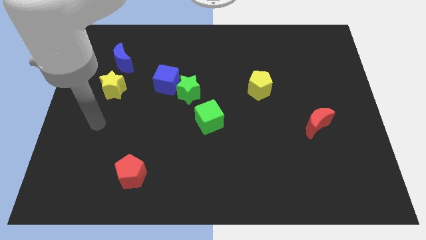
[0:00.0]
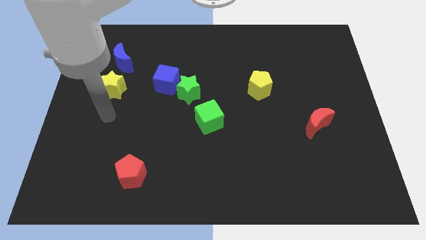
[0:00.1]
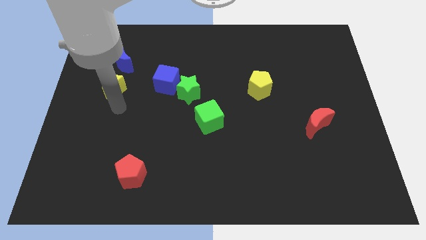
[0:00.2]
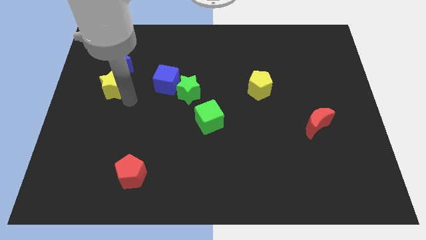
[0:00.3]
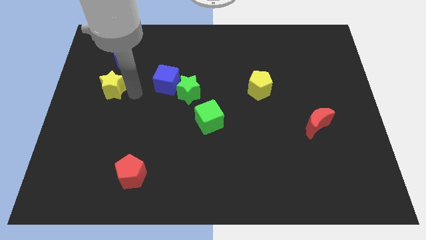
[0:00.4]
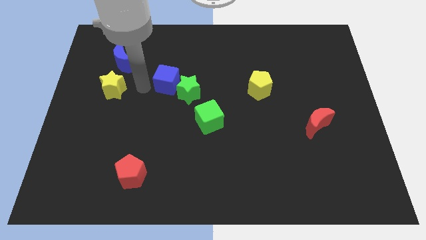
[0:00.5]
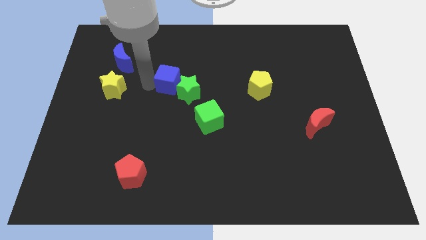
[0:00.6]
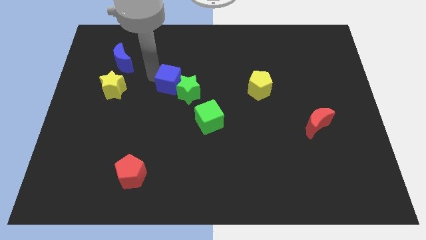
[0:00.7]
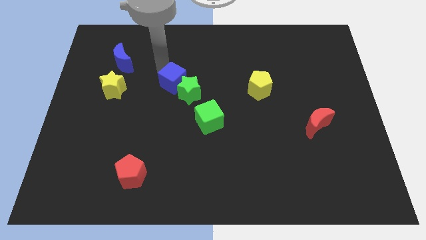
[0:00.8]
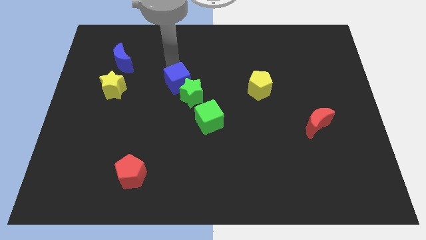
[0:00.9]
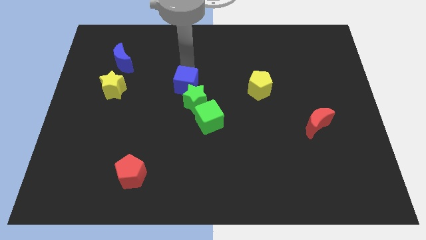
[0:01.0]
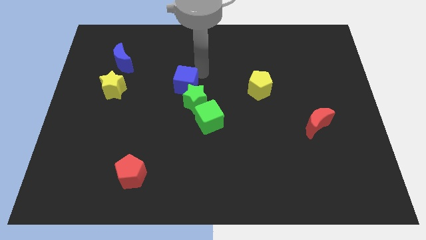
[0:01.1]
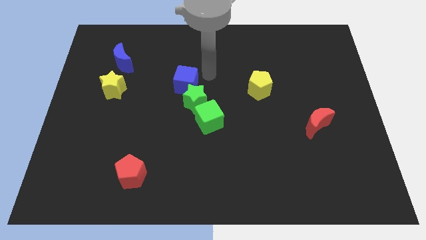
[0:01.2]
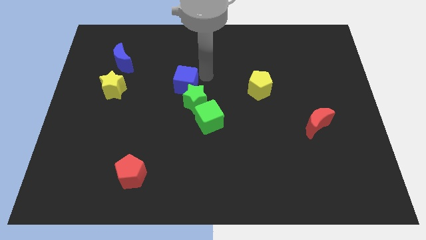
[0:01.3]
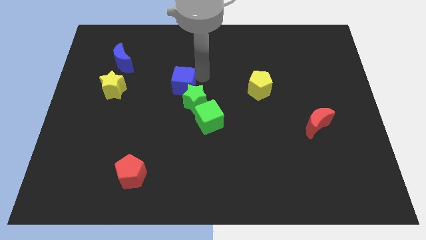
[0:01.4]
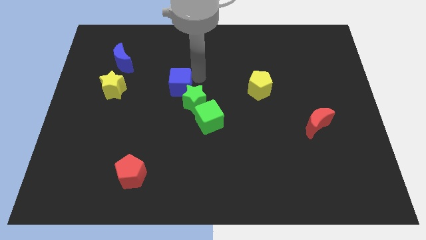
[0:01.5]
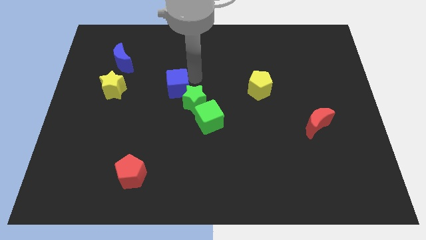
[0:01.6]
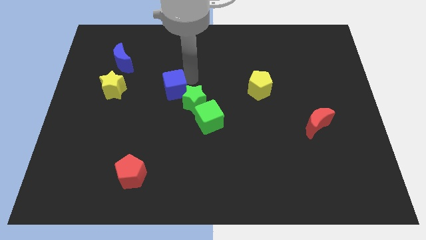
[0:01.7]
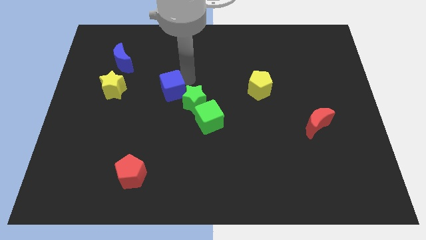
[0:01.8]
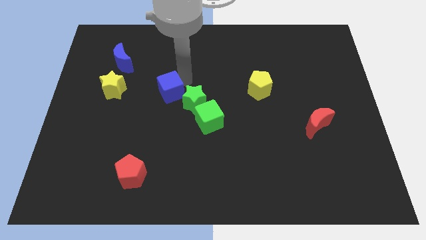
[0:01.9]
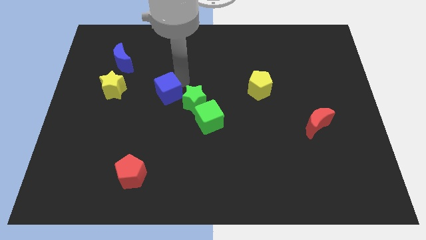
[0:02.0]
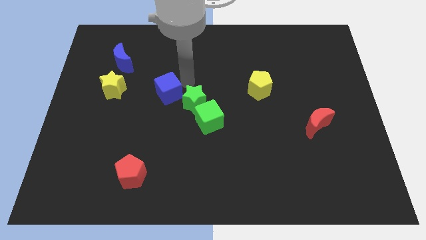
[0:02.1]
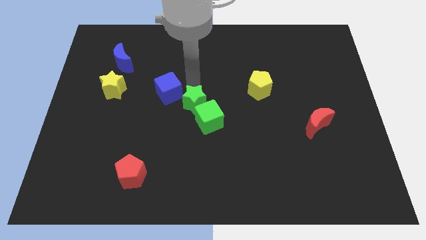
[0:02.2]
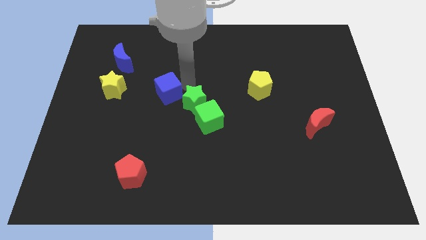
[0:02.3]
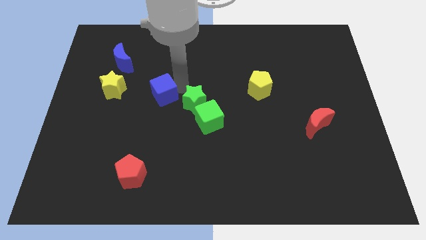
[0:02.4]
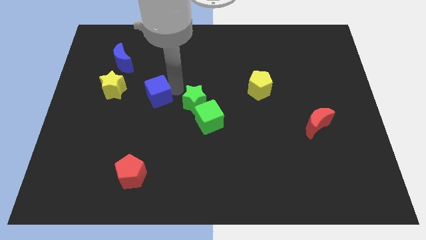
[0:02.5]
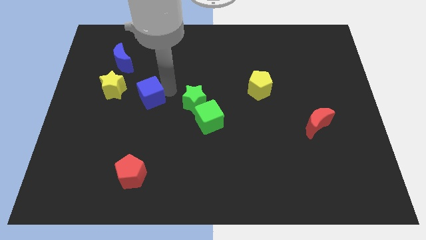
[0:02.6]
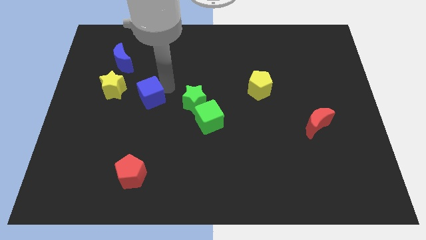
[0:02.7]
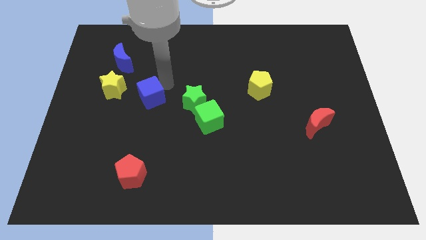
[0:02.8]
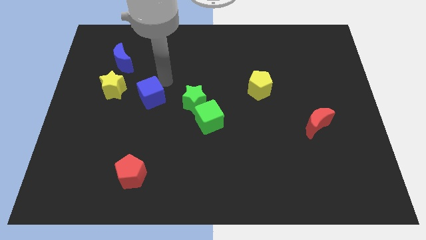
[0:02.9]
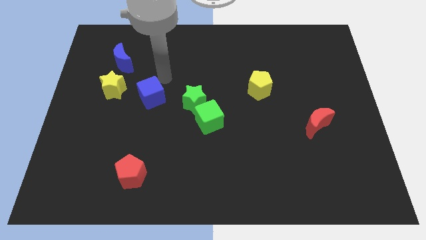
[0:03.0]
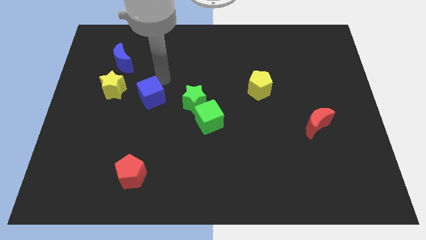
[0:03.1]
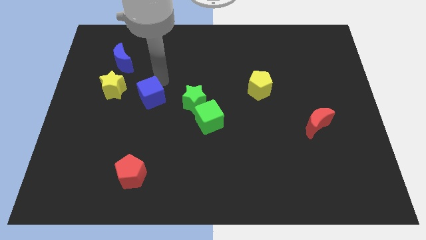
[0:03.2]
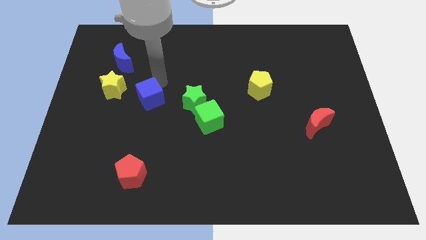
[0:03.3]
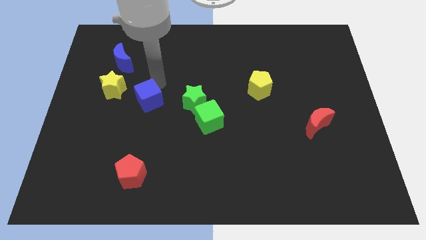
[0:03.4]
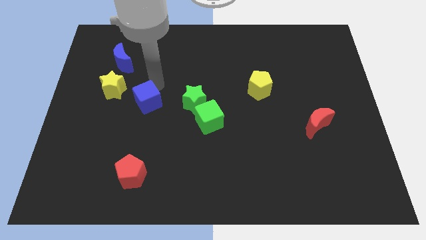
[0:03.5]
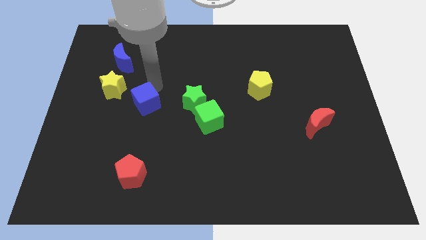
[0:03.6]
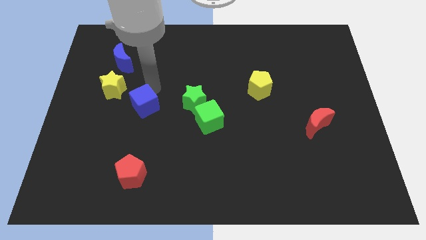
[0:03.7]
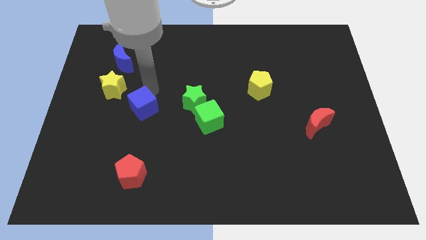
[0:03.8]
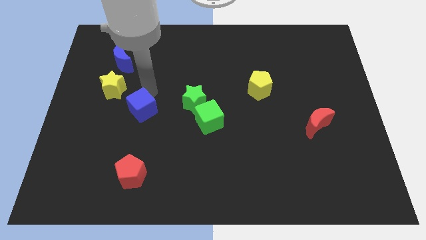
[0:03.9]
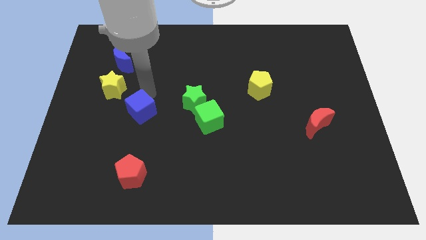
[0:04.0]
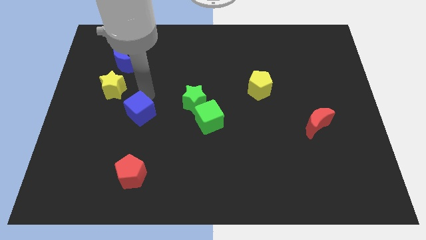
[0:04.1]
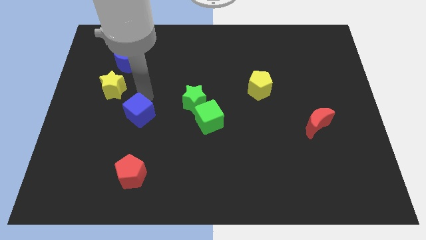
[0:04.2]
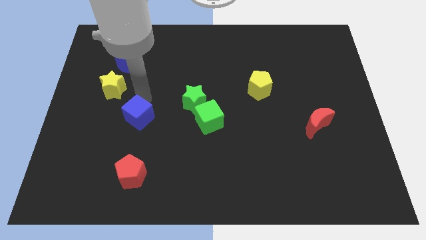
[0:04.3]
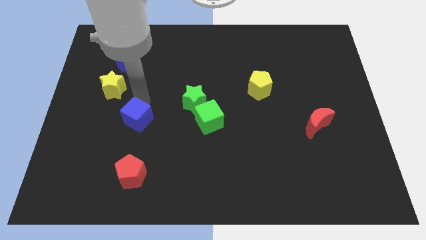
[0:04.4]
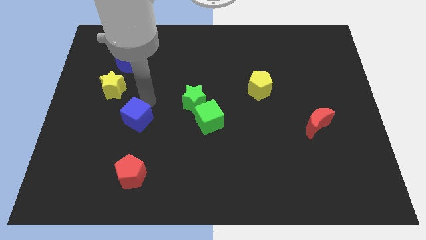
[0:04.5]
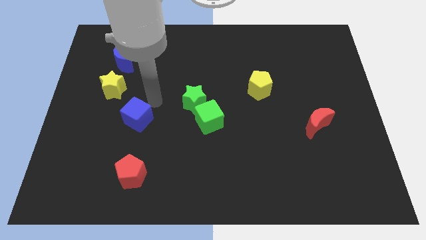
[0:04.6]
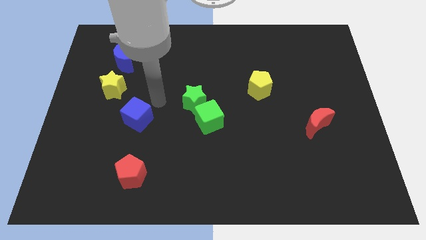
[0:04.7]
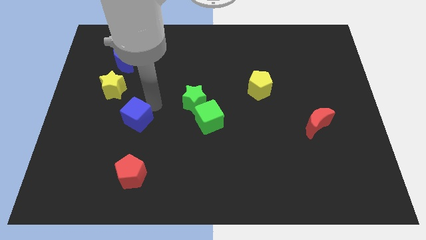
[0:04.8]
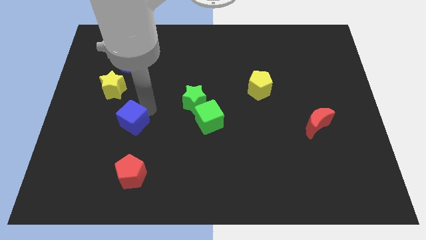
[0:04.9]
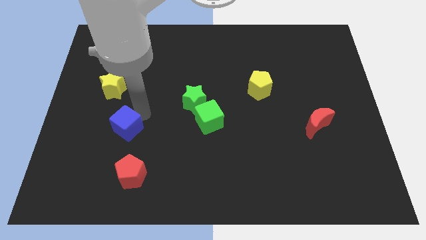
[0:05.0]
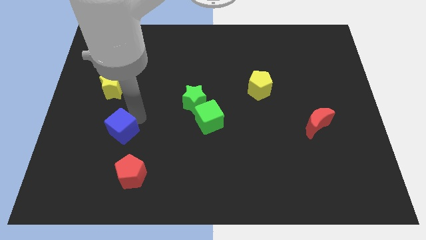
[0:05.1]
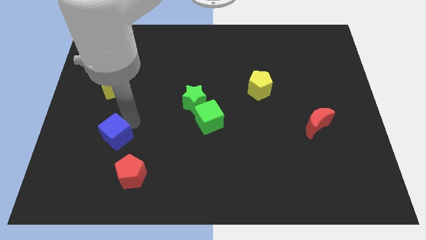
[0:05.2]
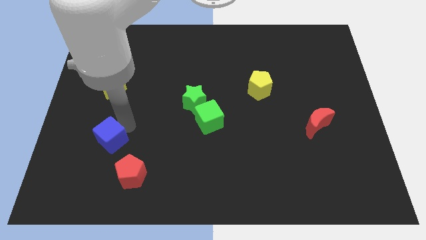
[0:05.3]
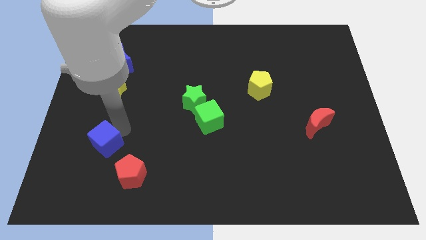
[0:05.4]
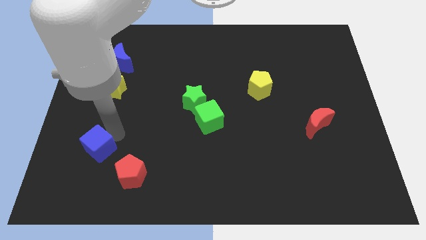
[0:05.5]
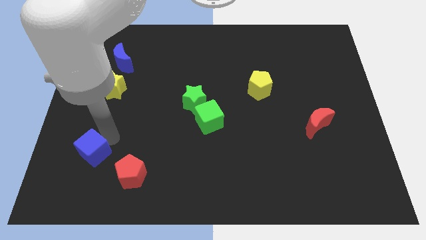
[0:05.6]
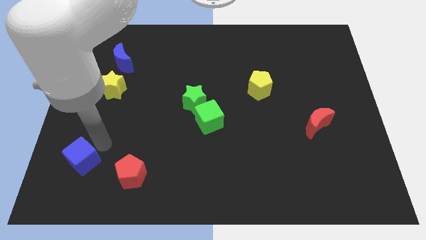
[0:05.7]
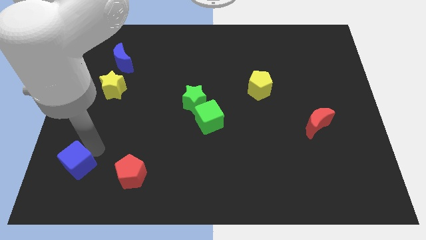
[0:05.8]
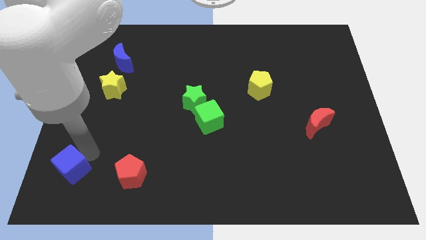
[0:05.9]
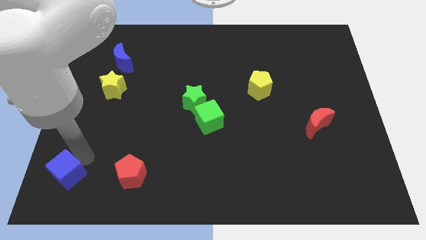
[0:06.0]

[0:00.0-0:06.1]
move the blue cube to the bottom left of the board
